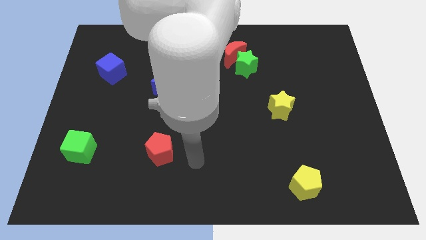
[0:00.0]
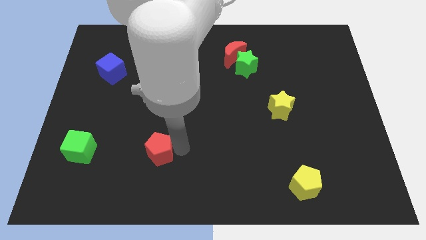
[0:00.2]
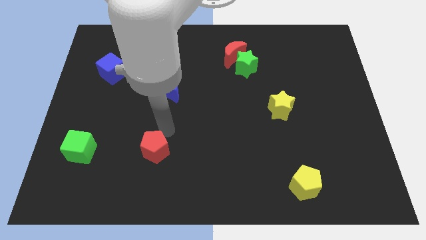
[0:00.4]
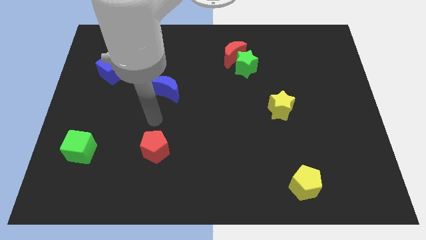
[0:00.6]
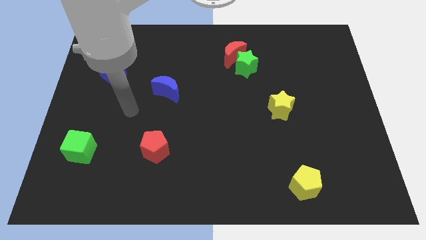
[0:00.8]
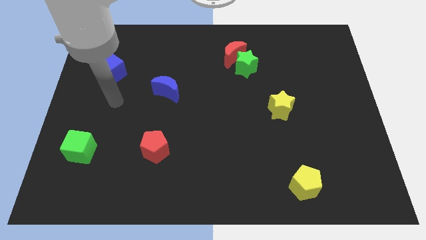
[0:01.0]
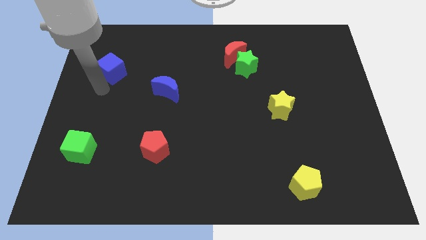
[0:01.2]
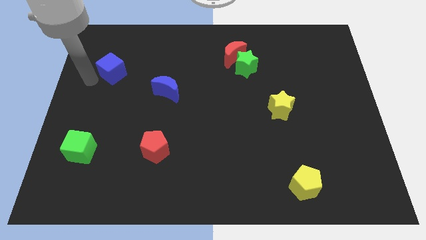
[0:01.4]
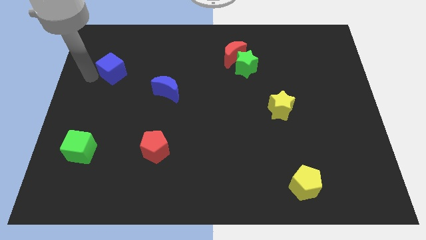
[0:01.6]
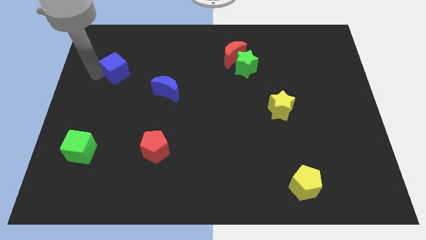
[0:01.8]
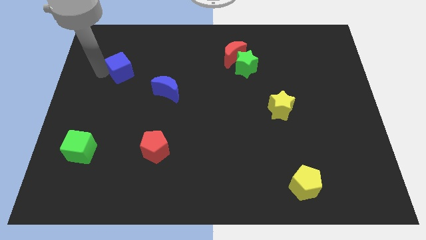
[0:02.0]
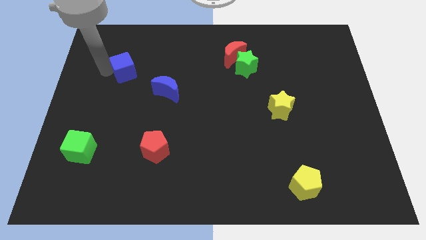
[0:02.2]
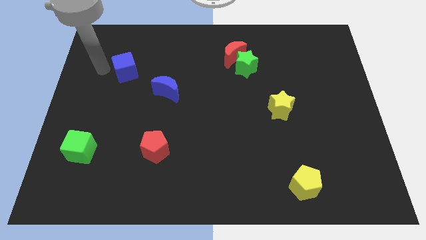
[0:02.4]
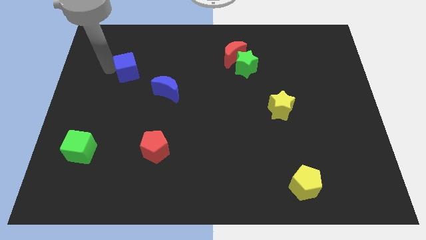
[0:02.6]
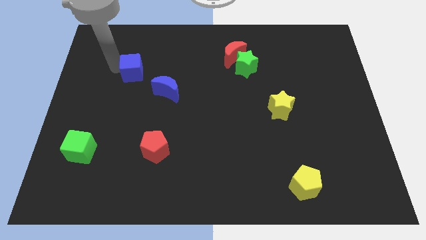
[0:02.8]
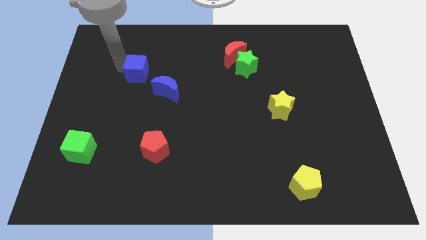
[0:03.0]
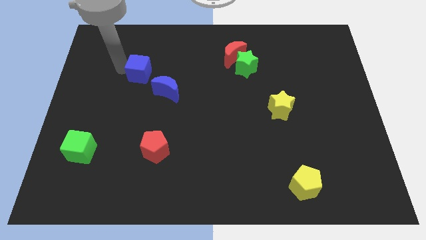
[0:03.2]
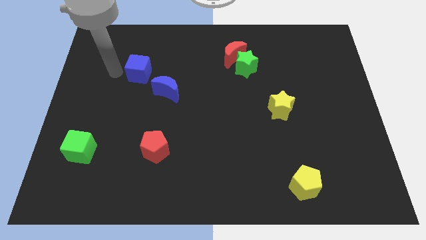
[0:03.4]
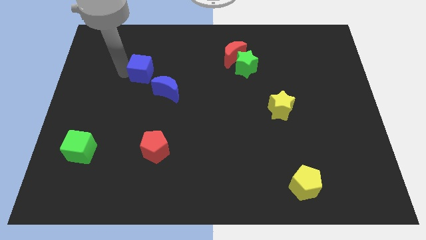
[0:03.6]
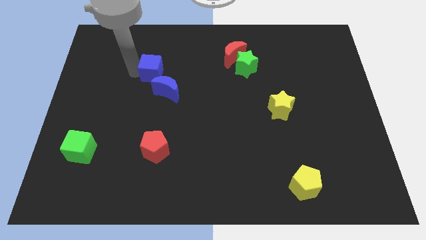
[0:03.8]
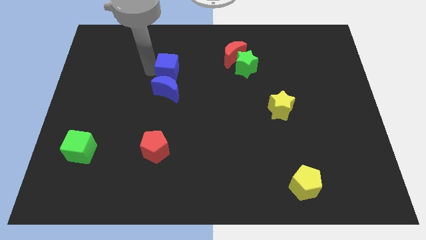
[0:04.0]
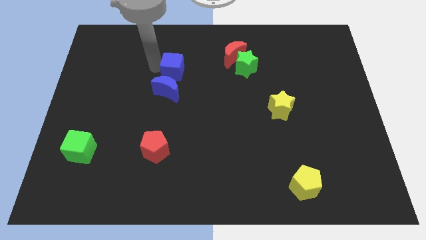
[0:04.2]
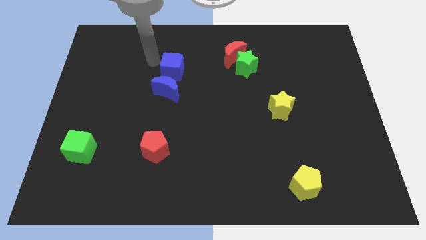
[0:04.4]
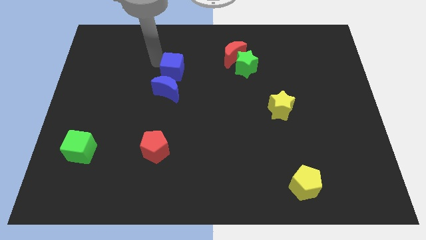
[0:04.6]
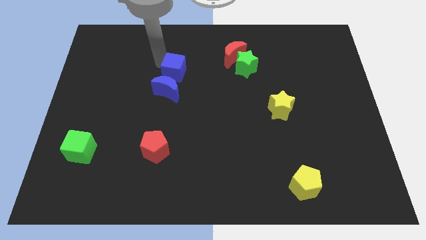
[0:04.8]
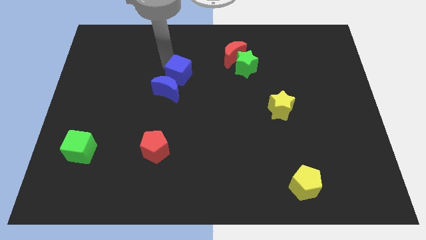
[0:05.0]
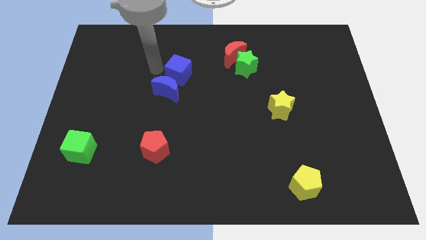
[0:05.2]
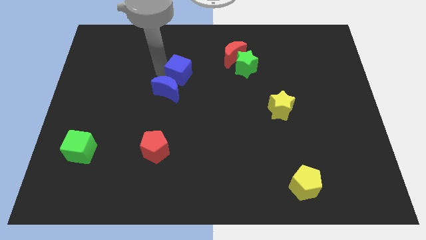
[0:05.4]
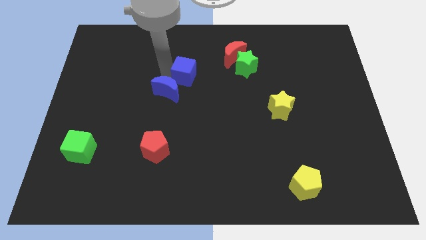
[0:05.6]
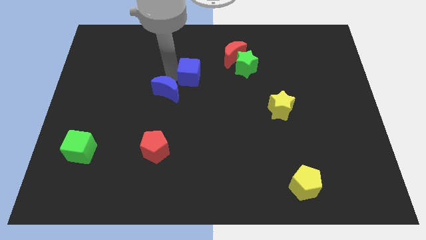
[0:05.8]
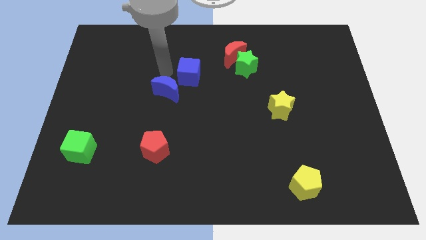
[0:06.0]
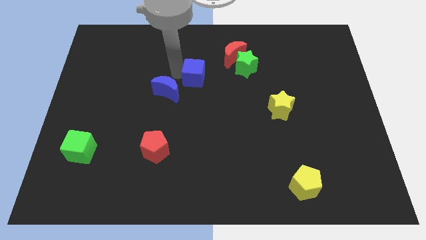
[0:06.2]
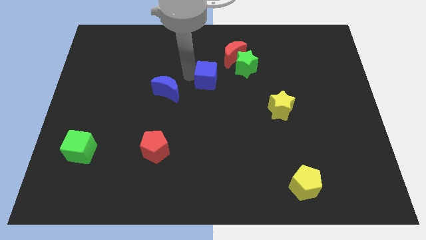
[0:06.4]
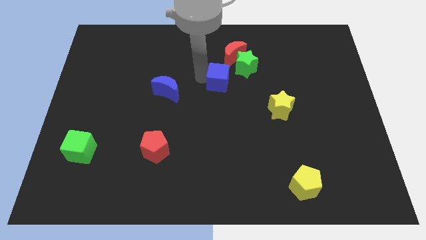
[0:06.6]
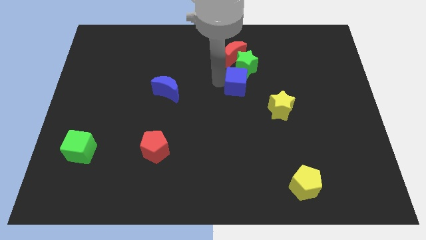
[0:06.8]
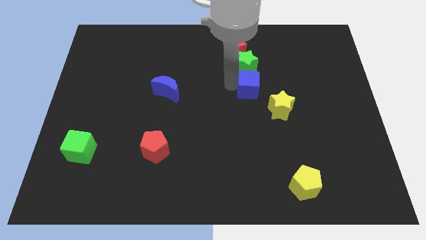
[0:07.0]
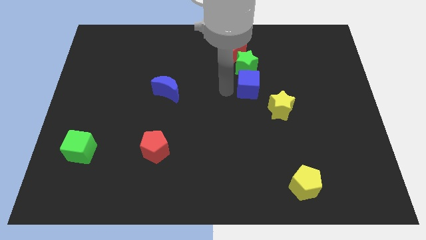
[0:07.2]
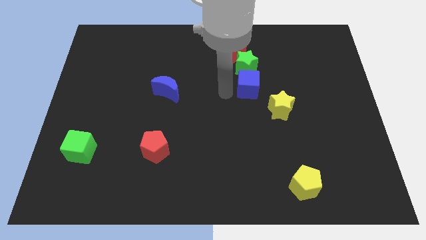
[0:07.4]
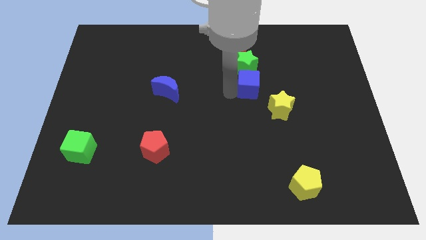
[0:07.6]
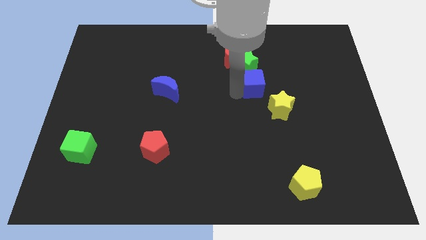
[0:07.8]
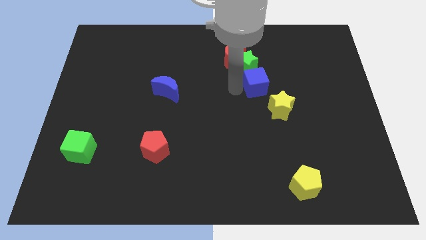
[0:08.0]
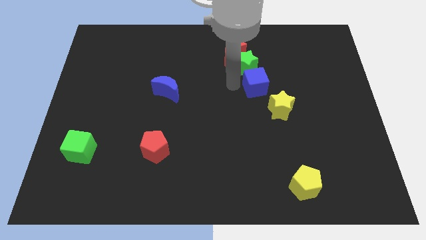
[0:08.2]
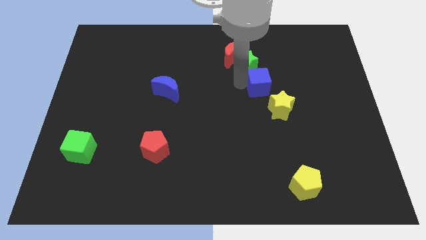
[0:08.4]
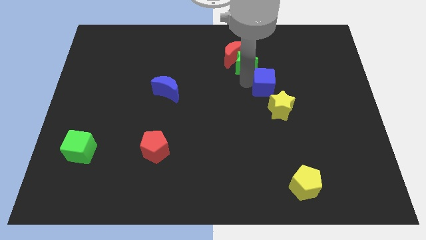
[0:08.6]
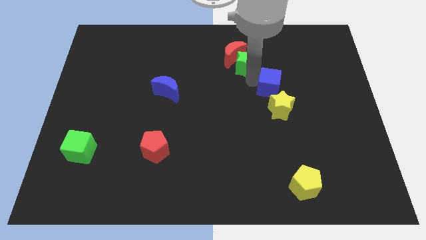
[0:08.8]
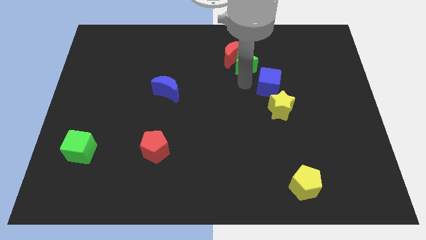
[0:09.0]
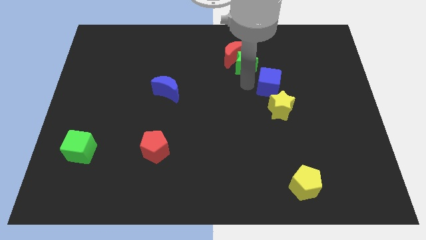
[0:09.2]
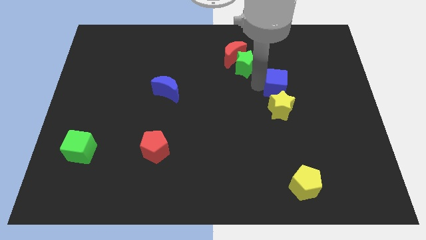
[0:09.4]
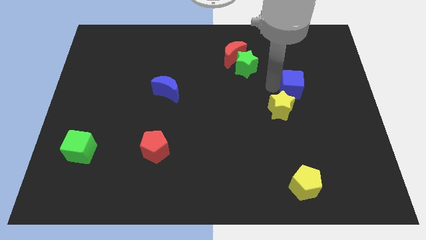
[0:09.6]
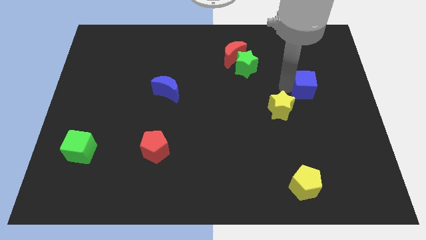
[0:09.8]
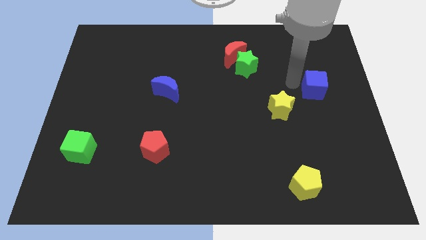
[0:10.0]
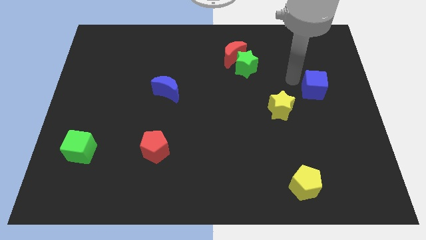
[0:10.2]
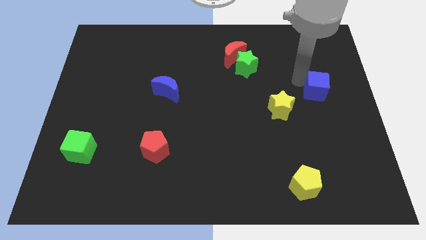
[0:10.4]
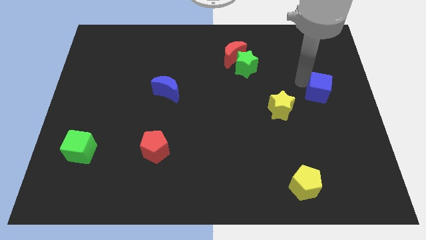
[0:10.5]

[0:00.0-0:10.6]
move the blue cube to the right side

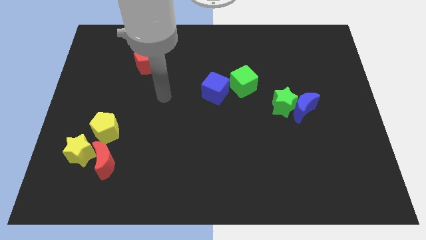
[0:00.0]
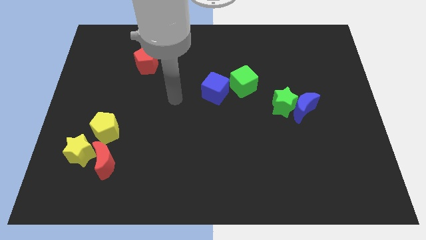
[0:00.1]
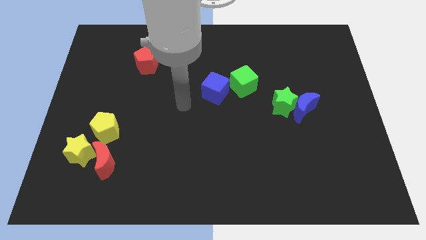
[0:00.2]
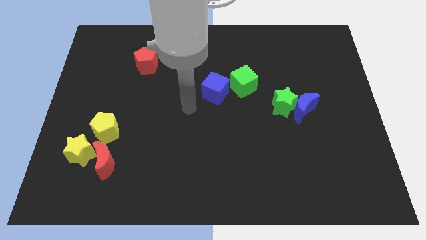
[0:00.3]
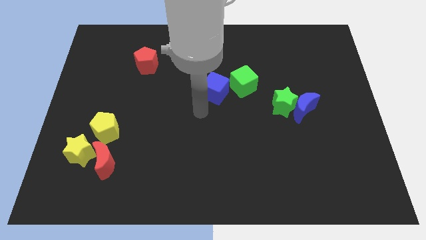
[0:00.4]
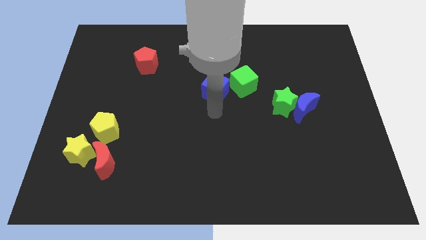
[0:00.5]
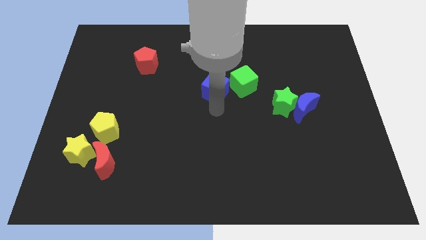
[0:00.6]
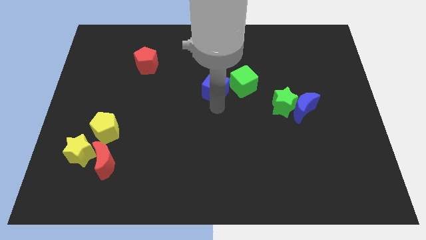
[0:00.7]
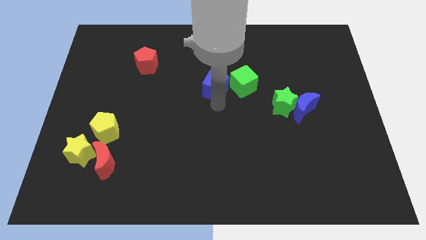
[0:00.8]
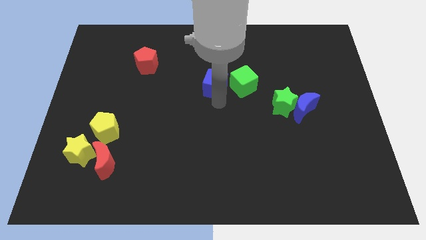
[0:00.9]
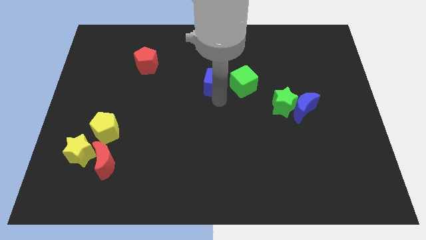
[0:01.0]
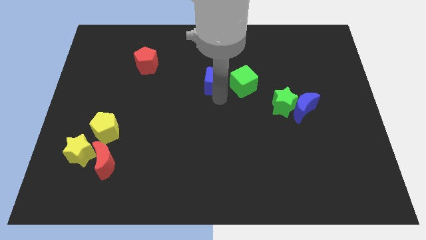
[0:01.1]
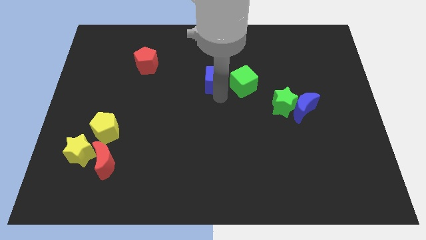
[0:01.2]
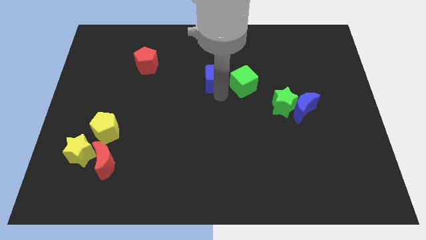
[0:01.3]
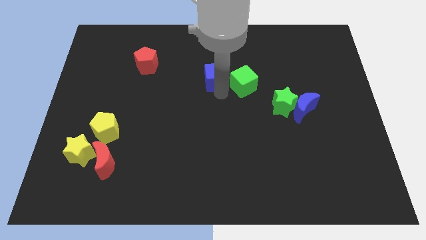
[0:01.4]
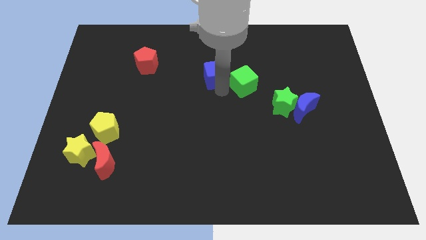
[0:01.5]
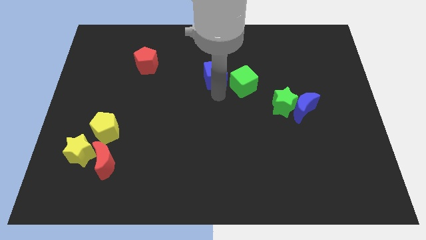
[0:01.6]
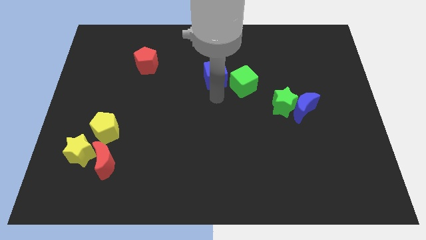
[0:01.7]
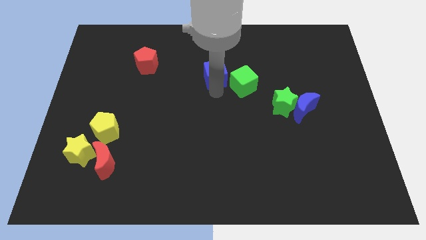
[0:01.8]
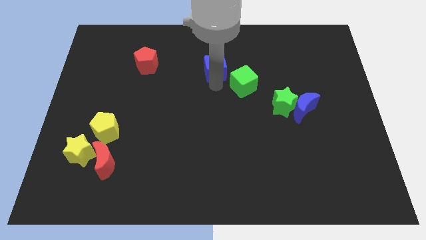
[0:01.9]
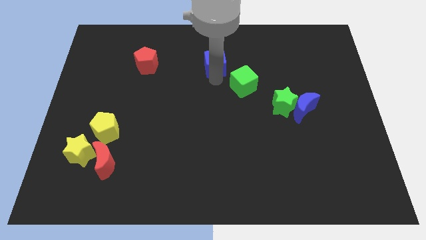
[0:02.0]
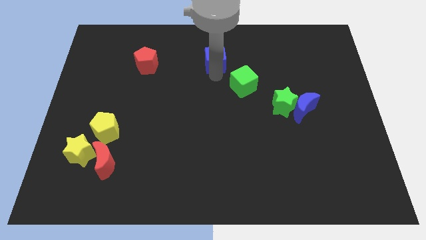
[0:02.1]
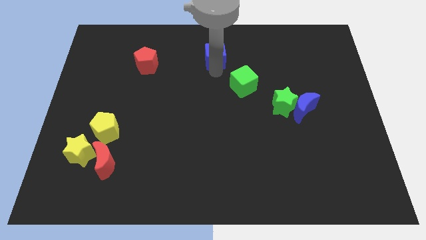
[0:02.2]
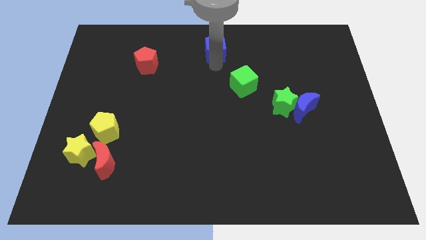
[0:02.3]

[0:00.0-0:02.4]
slide the blue cube to the top
